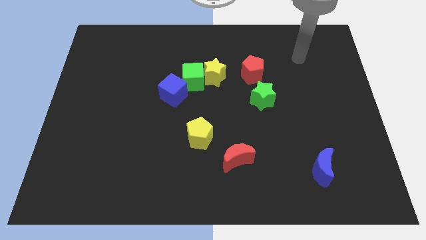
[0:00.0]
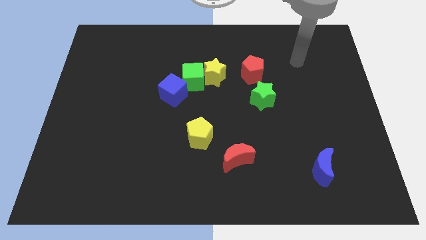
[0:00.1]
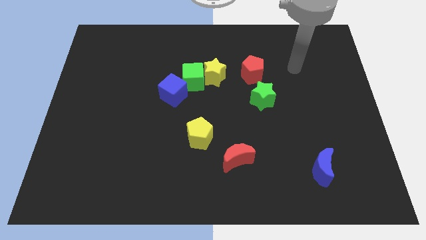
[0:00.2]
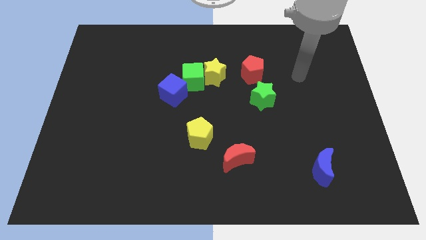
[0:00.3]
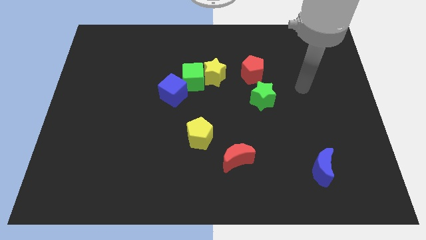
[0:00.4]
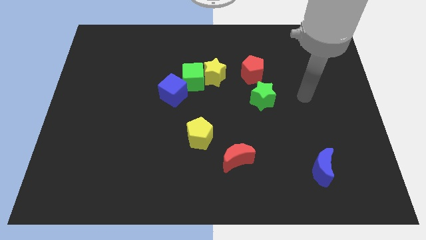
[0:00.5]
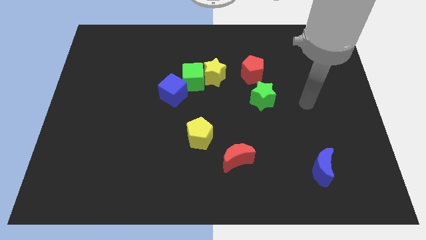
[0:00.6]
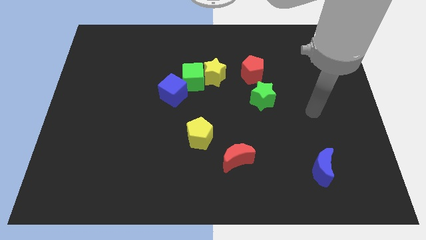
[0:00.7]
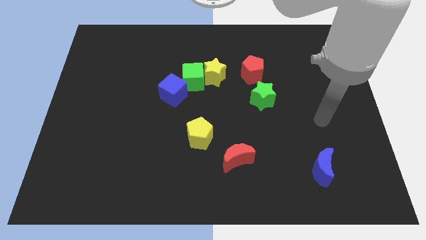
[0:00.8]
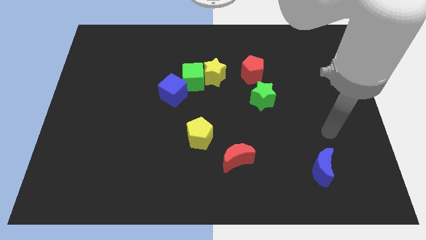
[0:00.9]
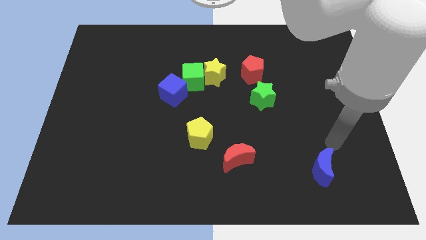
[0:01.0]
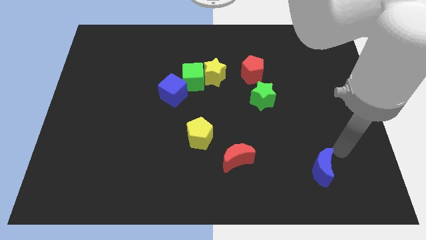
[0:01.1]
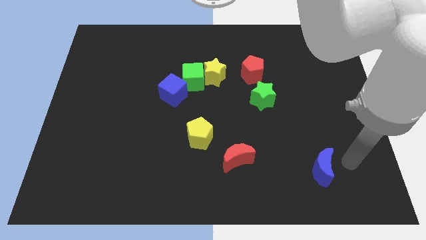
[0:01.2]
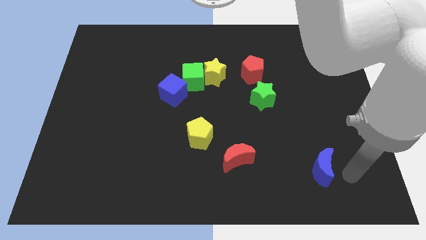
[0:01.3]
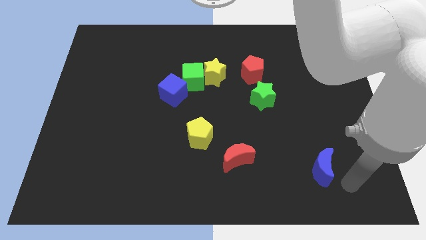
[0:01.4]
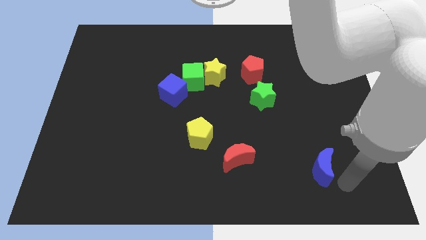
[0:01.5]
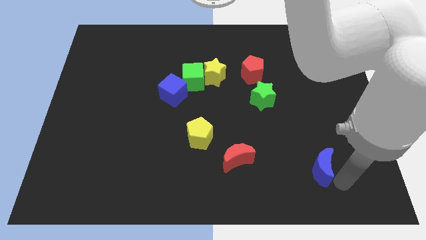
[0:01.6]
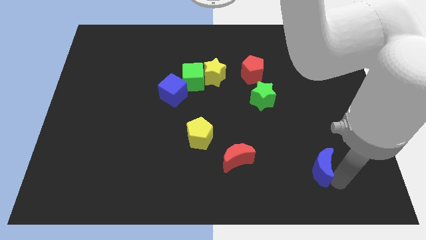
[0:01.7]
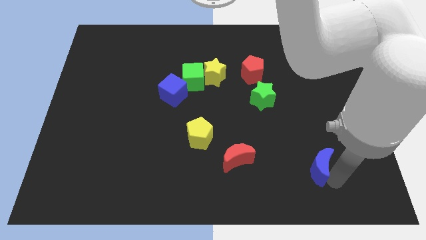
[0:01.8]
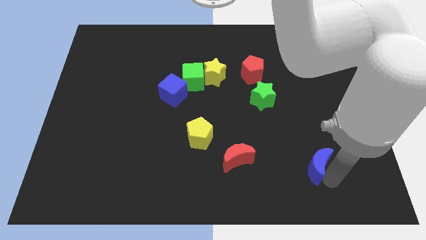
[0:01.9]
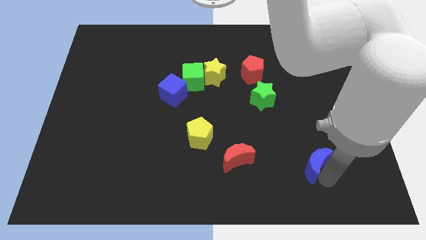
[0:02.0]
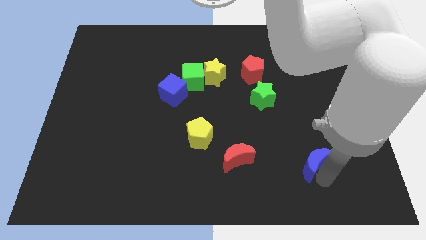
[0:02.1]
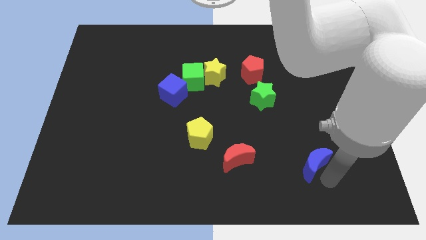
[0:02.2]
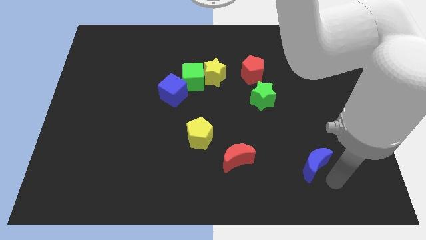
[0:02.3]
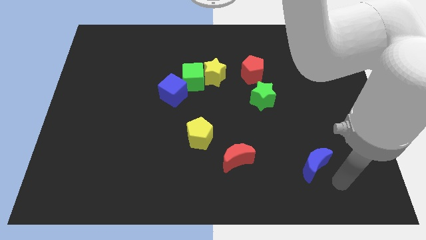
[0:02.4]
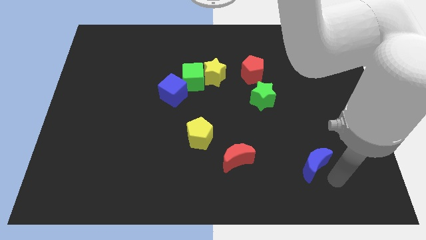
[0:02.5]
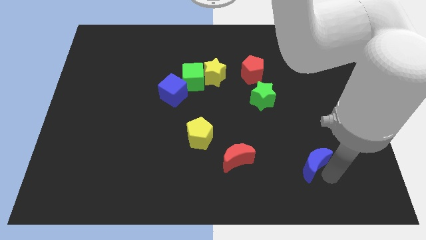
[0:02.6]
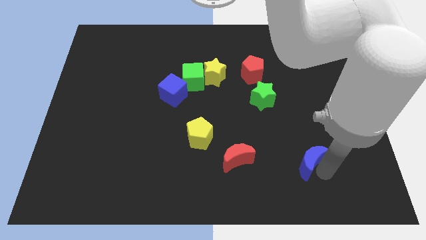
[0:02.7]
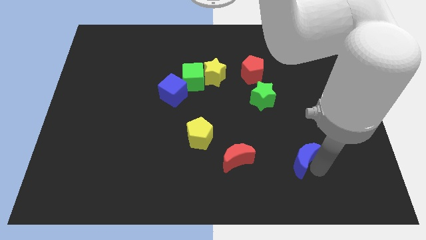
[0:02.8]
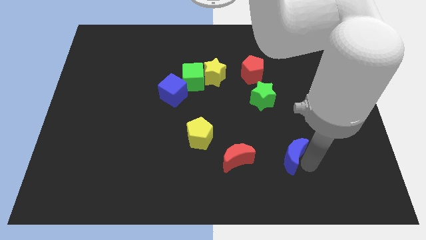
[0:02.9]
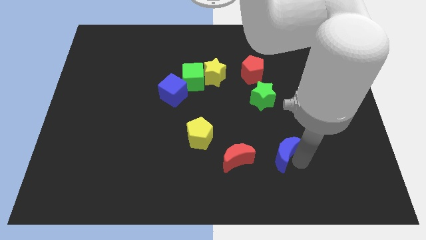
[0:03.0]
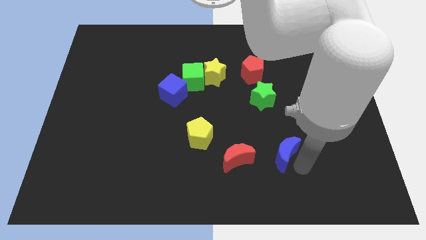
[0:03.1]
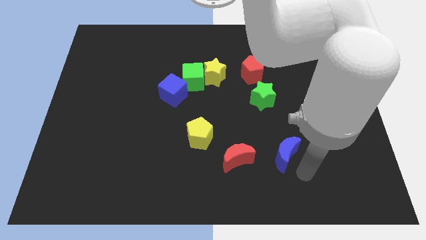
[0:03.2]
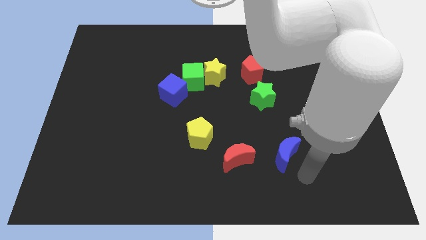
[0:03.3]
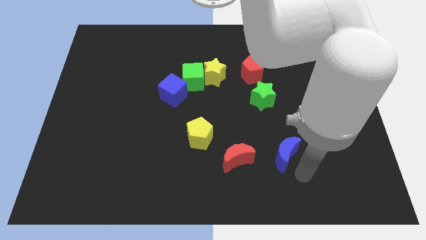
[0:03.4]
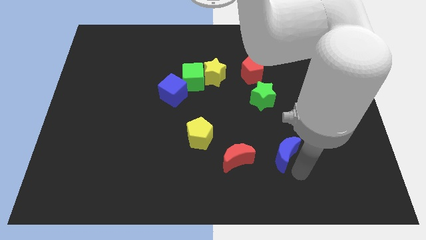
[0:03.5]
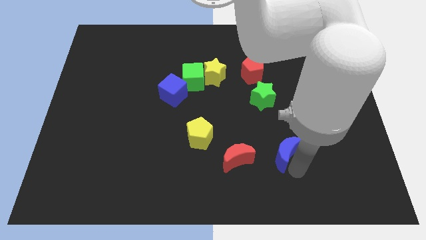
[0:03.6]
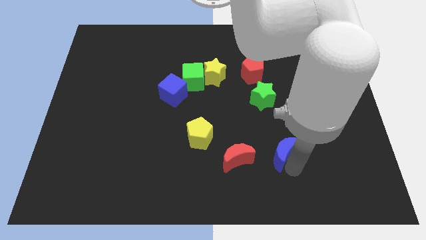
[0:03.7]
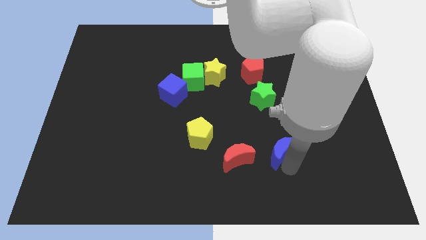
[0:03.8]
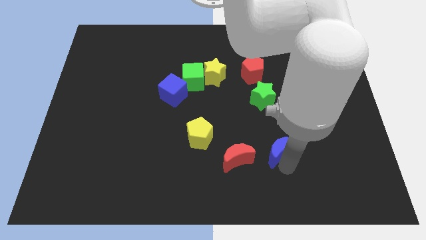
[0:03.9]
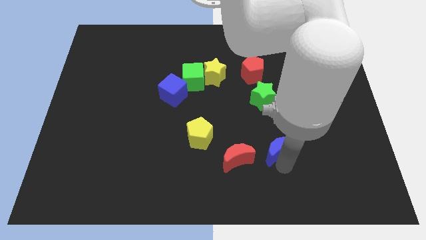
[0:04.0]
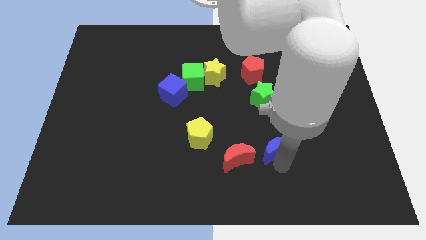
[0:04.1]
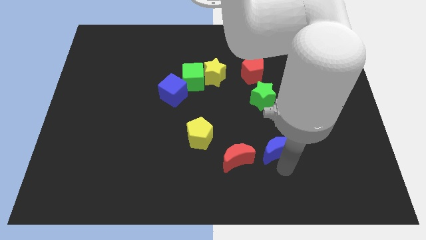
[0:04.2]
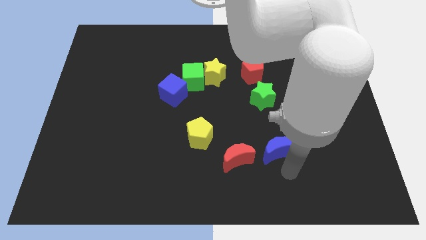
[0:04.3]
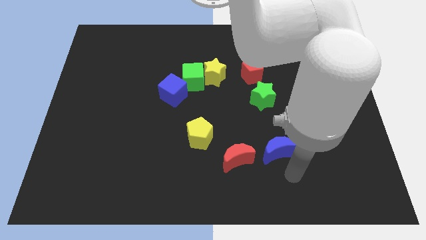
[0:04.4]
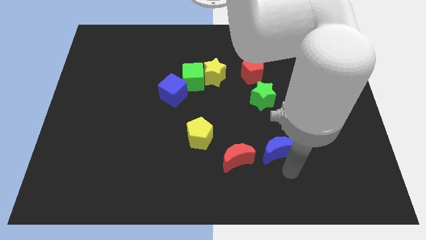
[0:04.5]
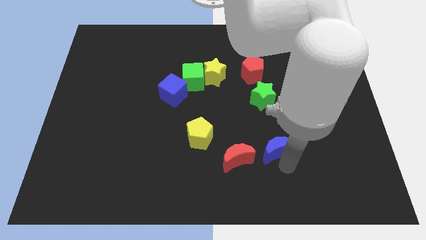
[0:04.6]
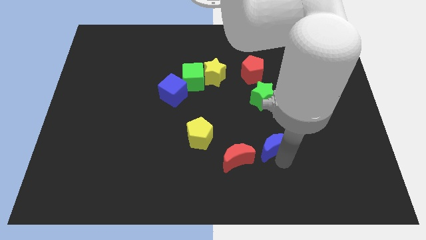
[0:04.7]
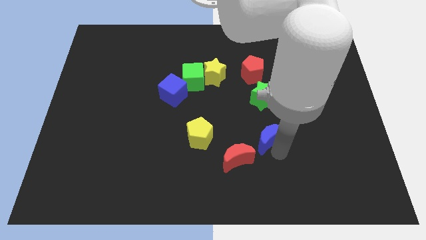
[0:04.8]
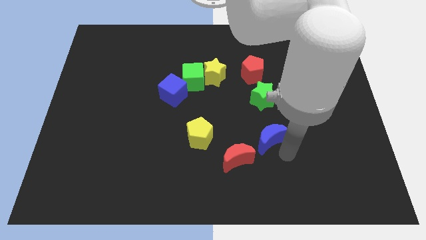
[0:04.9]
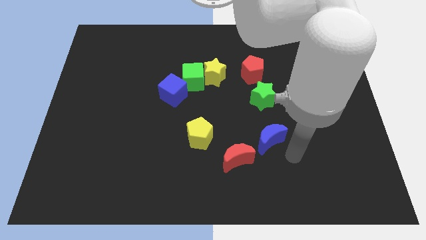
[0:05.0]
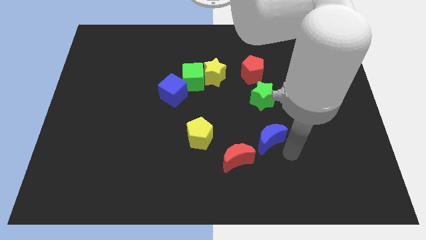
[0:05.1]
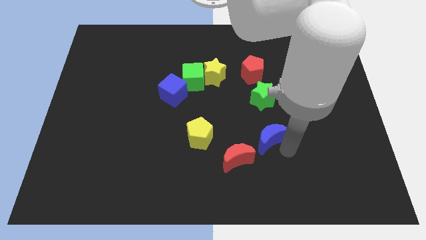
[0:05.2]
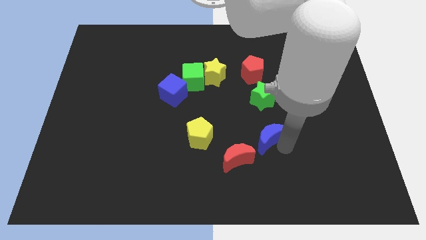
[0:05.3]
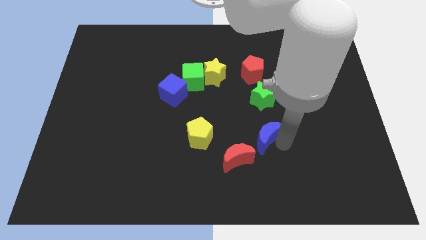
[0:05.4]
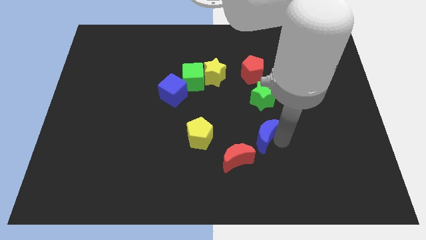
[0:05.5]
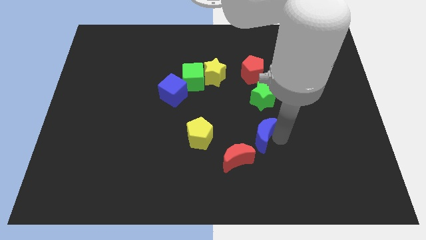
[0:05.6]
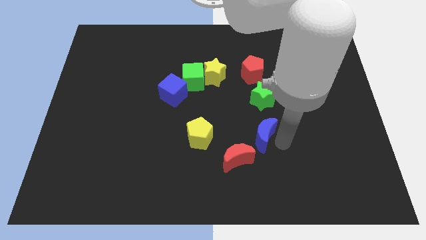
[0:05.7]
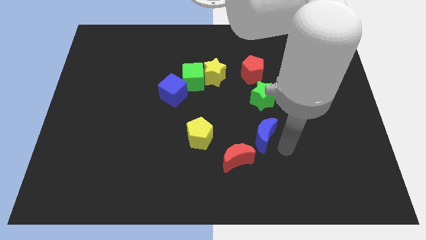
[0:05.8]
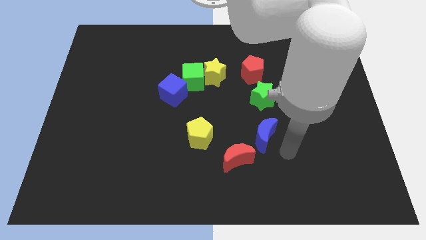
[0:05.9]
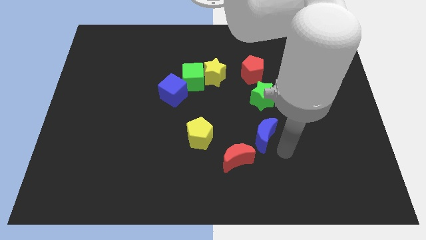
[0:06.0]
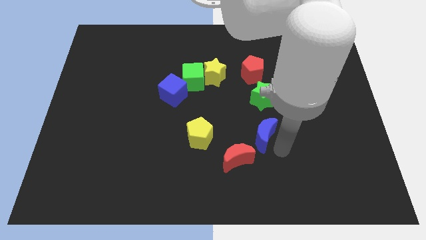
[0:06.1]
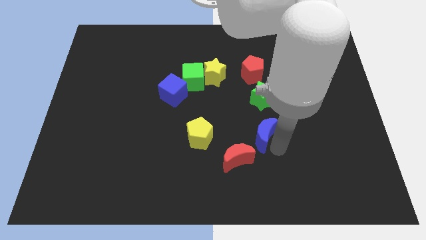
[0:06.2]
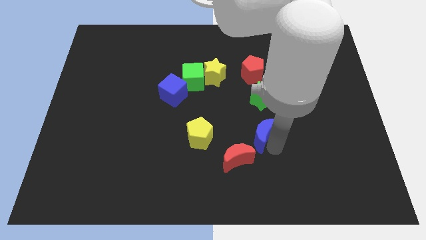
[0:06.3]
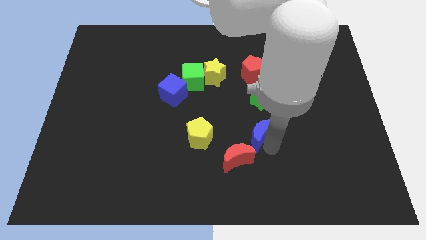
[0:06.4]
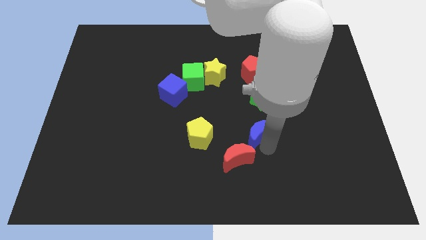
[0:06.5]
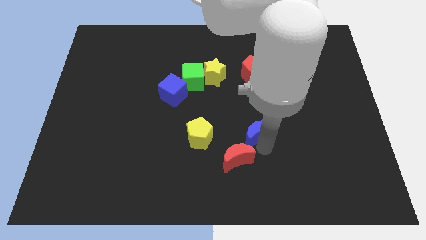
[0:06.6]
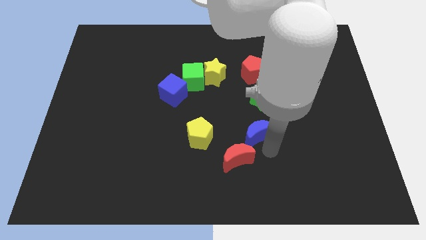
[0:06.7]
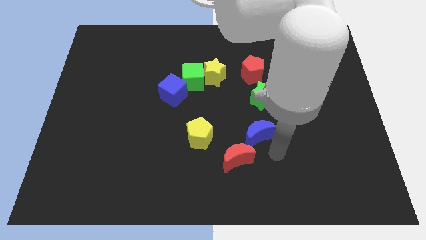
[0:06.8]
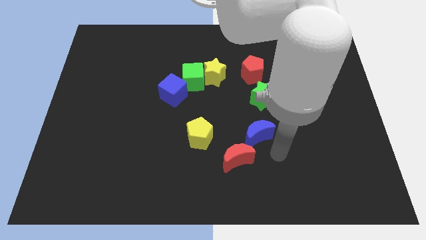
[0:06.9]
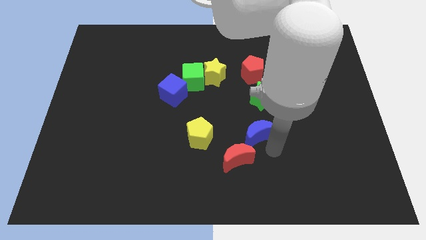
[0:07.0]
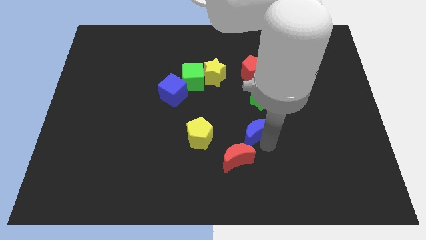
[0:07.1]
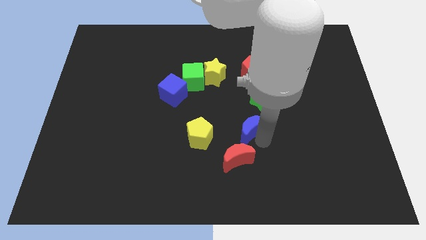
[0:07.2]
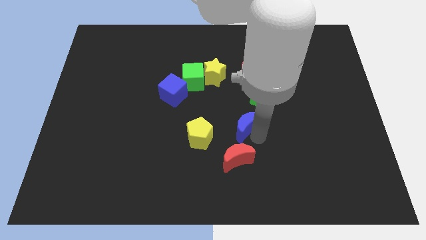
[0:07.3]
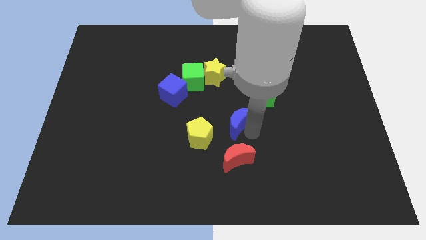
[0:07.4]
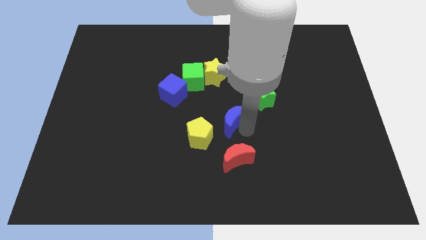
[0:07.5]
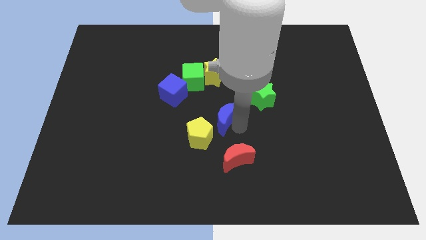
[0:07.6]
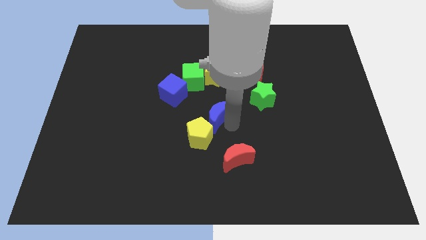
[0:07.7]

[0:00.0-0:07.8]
move the blue moon to the top of the yellow pentagon
